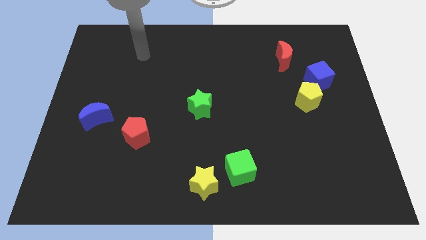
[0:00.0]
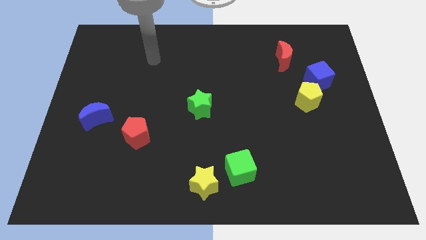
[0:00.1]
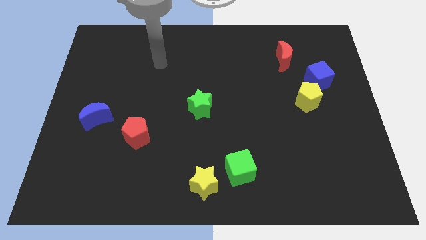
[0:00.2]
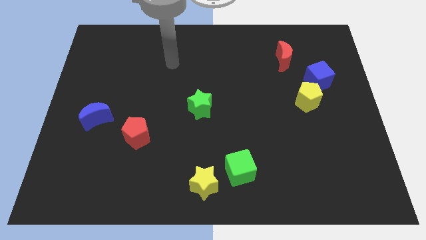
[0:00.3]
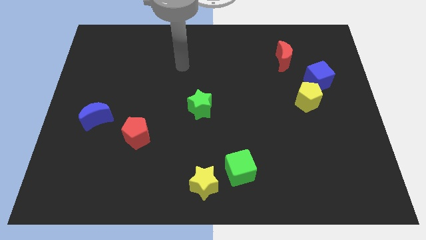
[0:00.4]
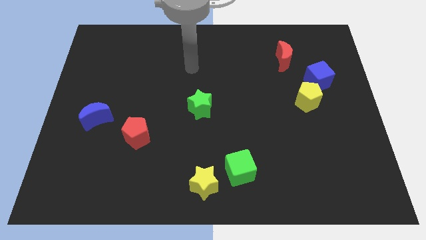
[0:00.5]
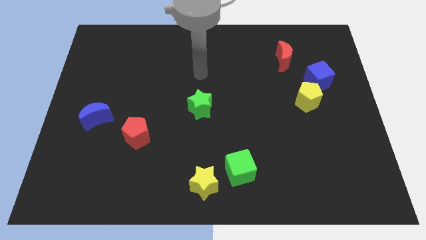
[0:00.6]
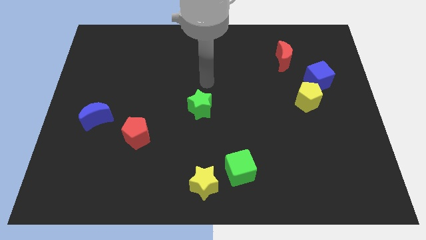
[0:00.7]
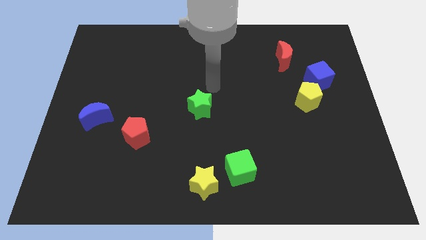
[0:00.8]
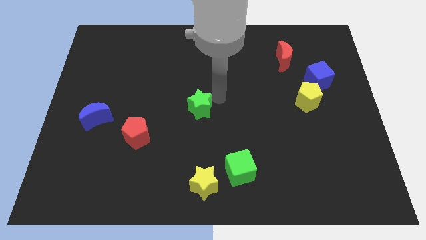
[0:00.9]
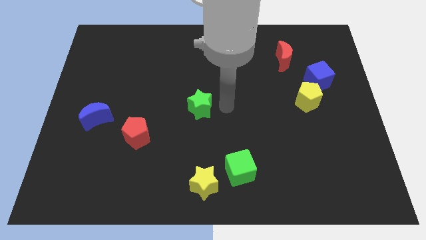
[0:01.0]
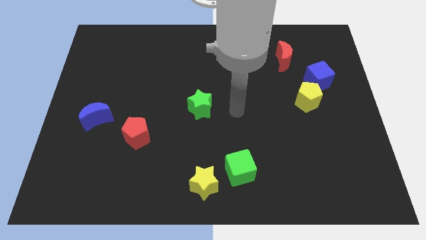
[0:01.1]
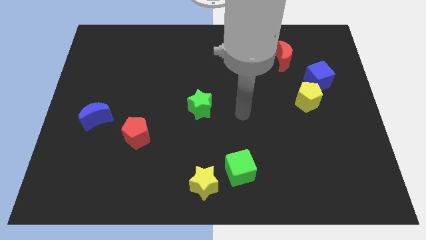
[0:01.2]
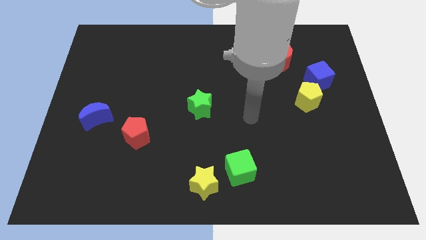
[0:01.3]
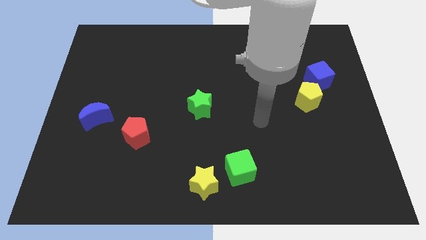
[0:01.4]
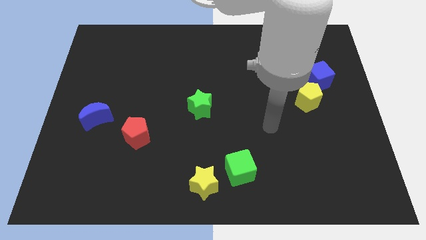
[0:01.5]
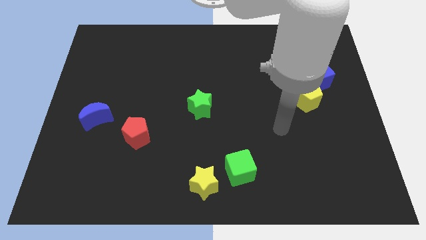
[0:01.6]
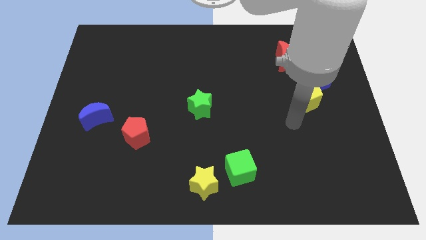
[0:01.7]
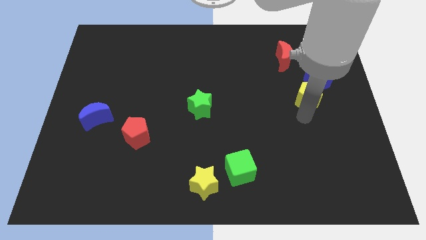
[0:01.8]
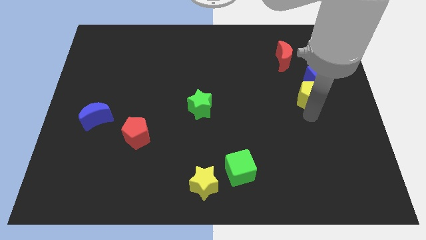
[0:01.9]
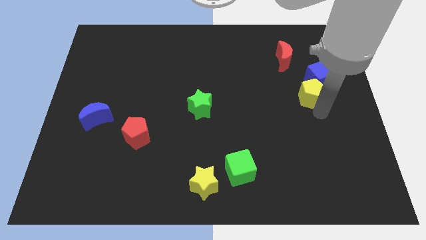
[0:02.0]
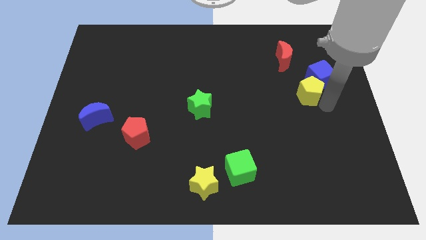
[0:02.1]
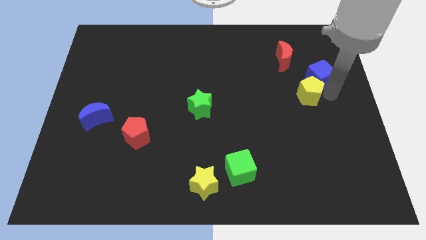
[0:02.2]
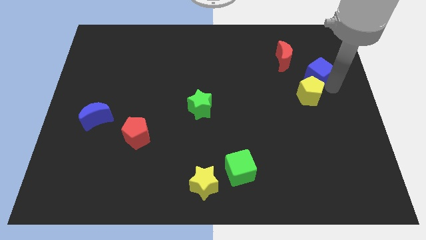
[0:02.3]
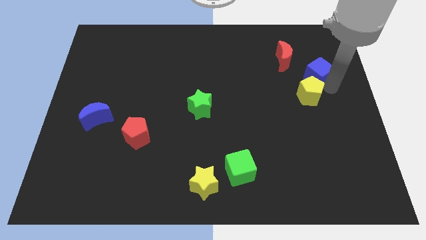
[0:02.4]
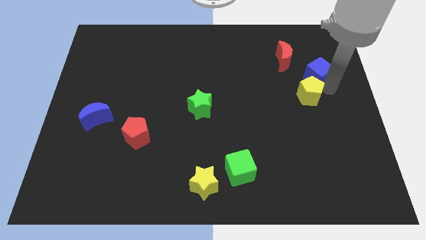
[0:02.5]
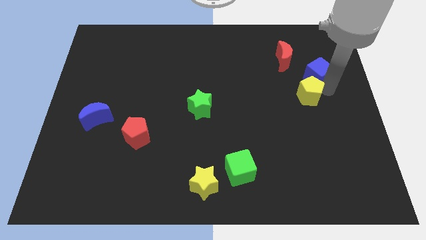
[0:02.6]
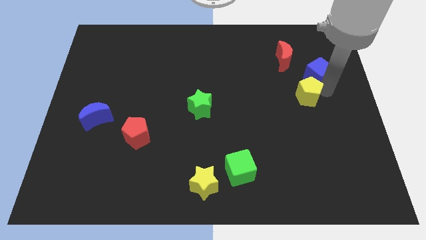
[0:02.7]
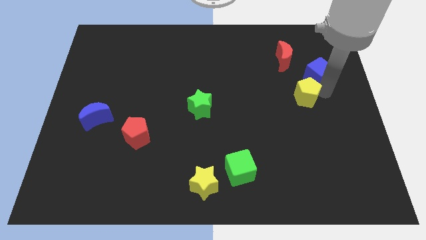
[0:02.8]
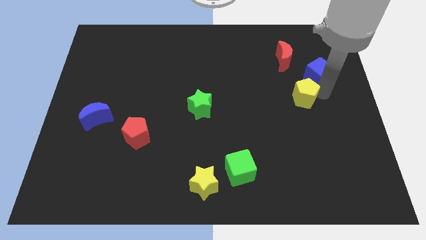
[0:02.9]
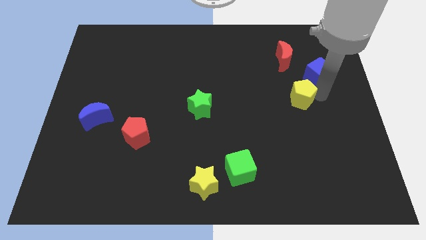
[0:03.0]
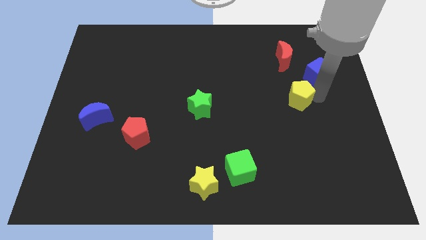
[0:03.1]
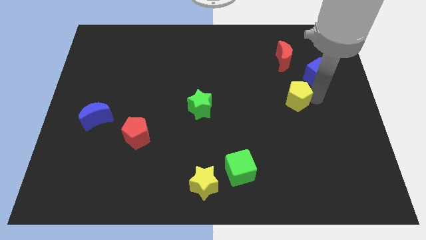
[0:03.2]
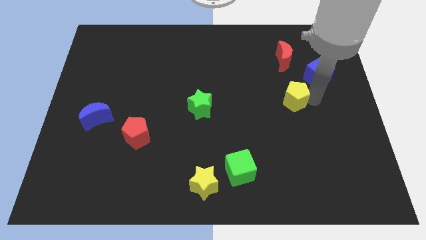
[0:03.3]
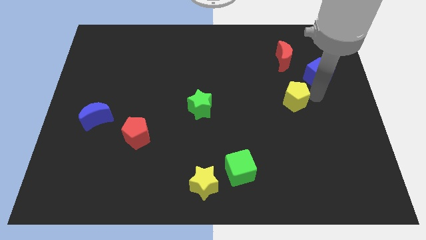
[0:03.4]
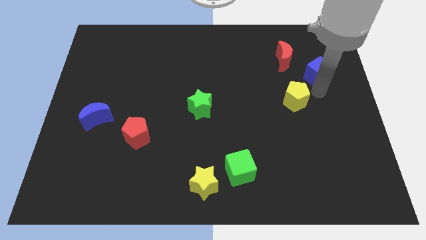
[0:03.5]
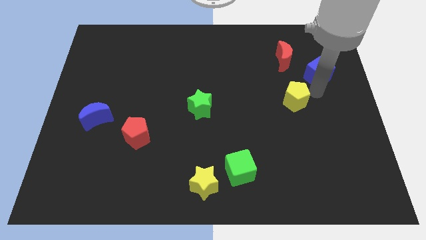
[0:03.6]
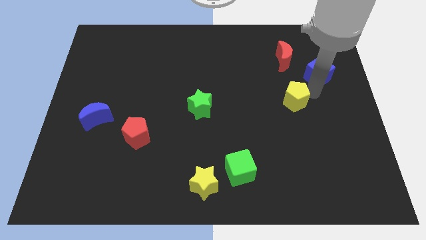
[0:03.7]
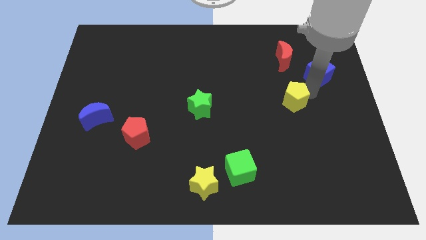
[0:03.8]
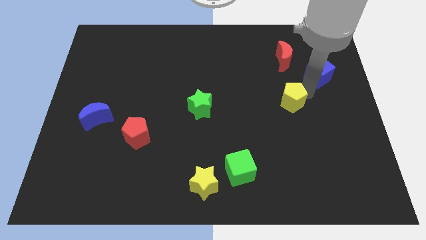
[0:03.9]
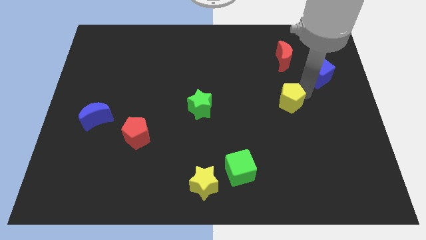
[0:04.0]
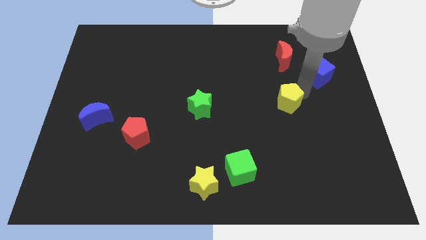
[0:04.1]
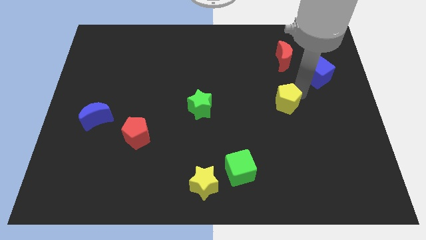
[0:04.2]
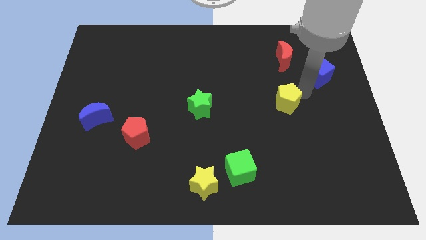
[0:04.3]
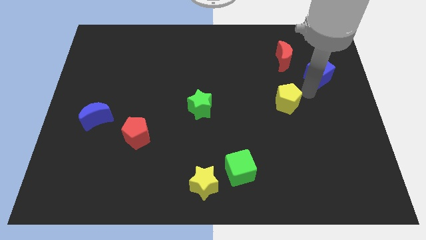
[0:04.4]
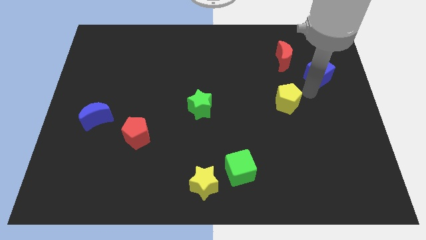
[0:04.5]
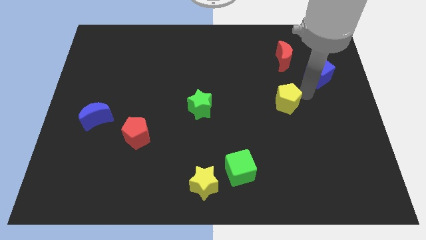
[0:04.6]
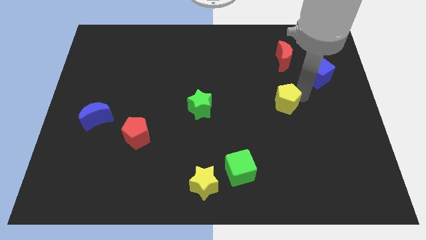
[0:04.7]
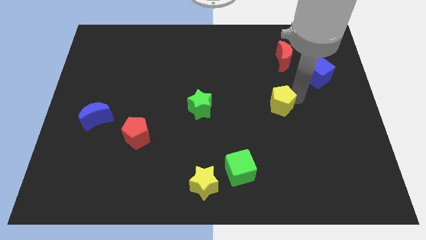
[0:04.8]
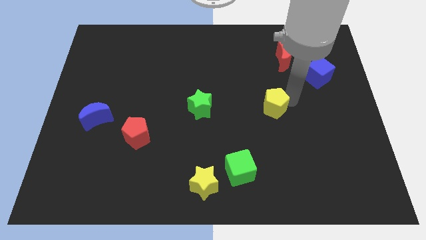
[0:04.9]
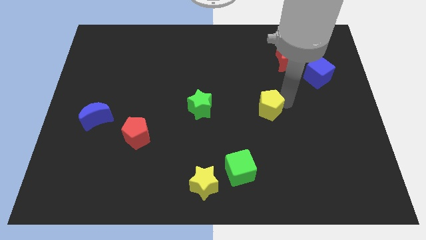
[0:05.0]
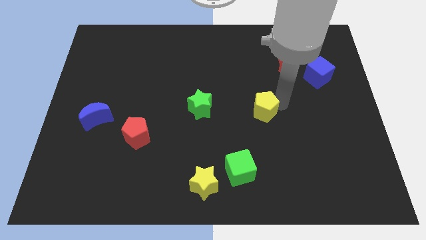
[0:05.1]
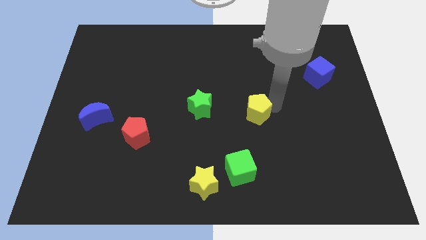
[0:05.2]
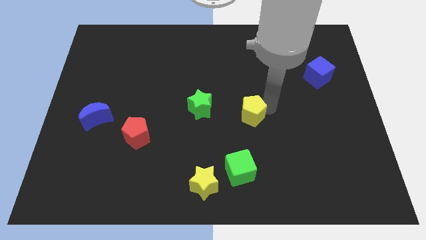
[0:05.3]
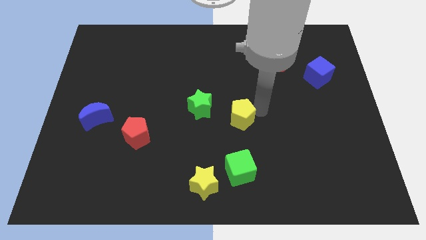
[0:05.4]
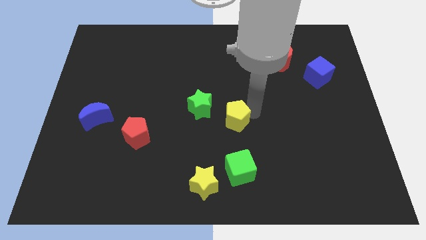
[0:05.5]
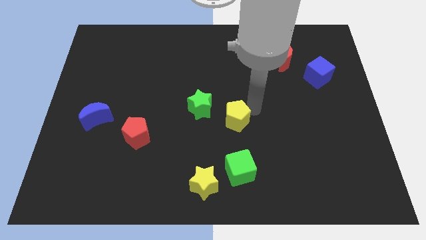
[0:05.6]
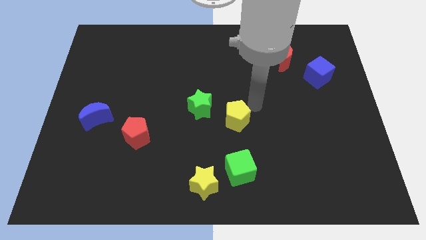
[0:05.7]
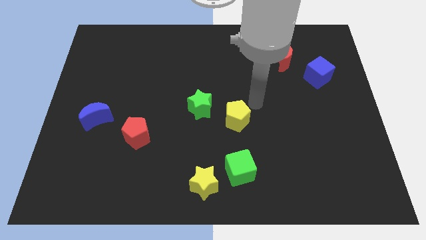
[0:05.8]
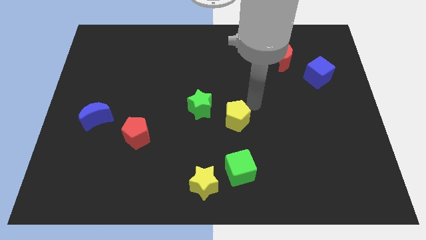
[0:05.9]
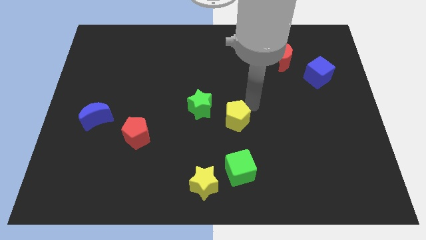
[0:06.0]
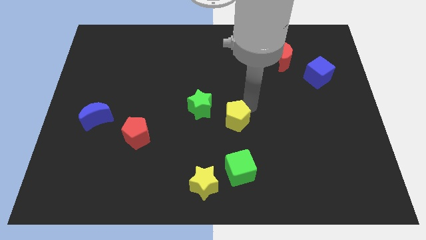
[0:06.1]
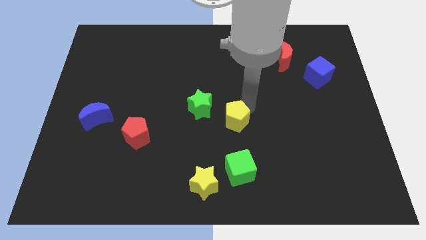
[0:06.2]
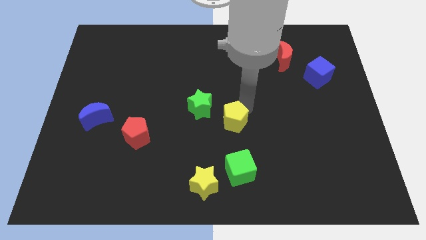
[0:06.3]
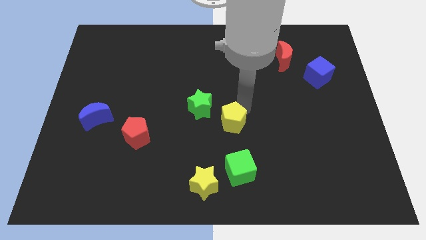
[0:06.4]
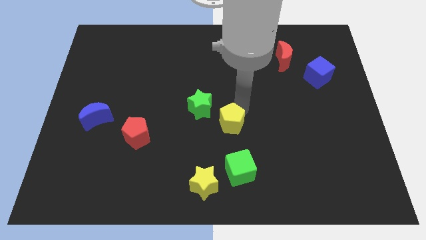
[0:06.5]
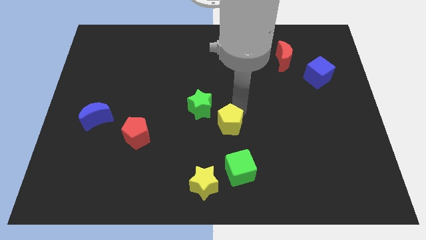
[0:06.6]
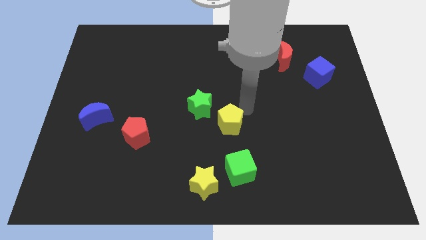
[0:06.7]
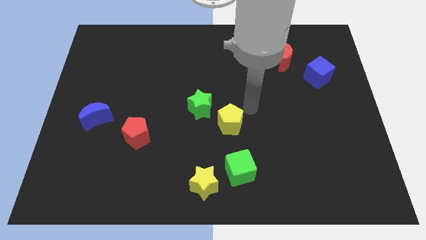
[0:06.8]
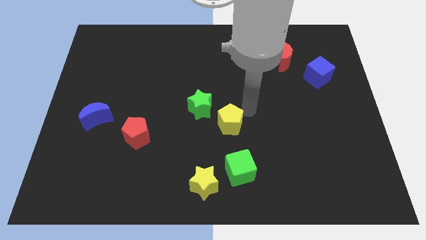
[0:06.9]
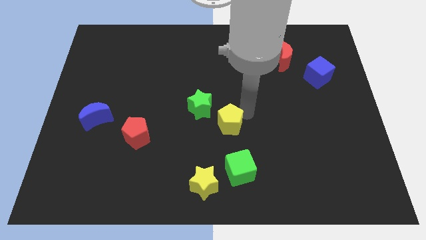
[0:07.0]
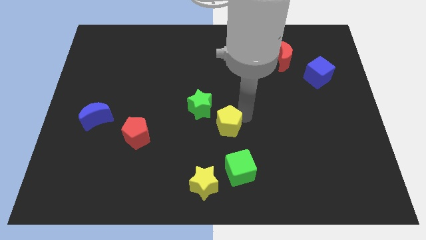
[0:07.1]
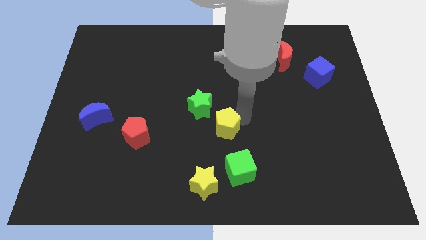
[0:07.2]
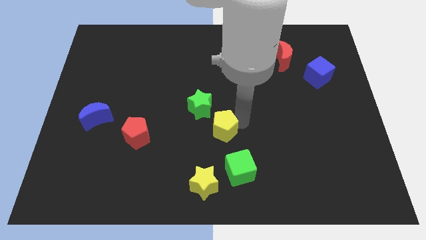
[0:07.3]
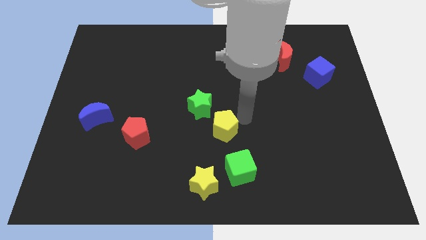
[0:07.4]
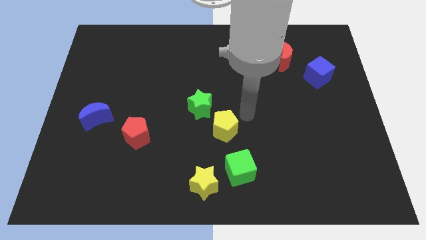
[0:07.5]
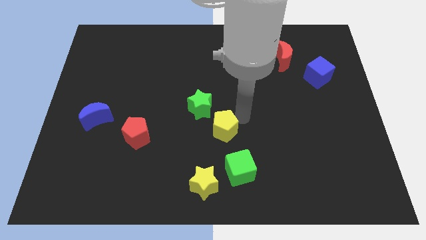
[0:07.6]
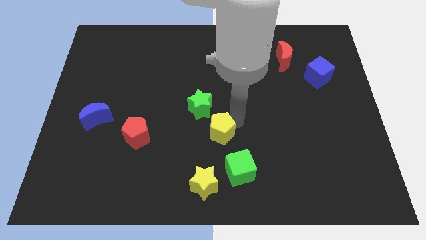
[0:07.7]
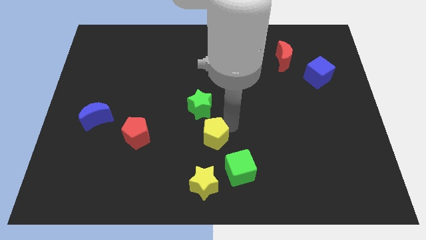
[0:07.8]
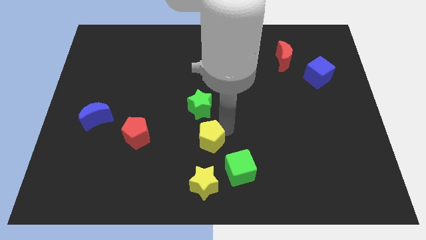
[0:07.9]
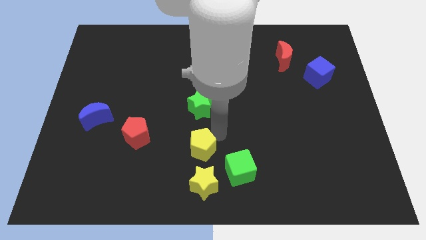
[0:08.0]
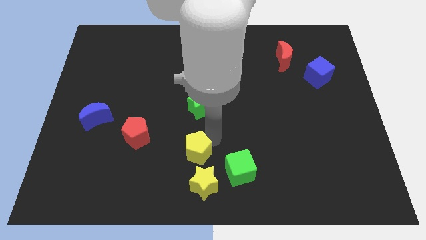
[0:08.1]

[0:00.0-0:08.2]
slide the yellow pentagon to the top left of the yellow star
